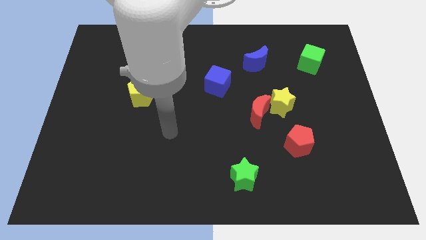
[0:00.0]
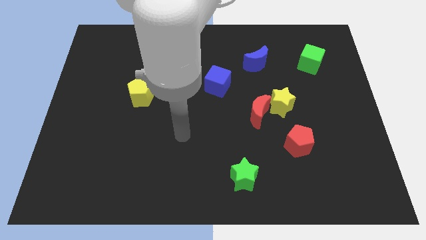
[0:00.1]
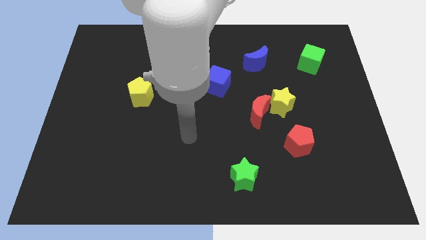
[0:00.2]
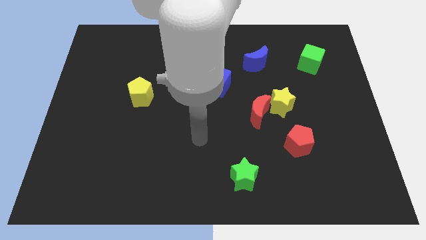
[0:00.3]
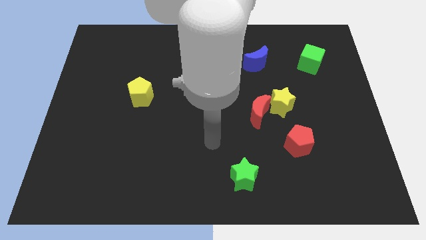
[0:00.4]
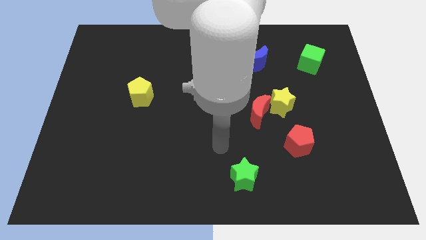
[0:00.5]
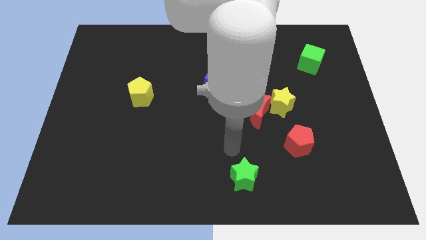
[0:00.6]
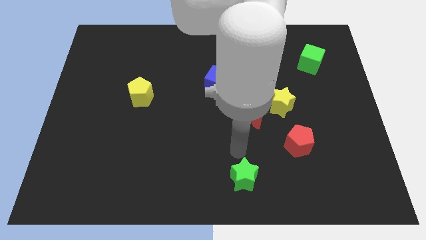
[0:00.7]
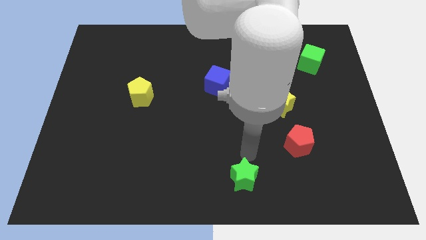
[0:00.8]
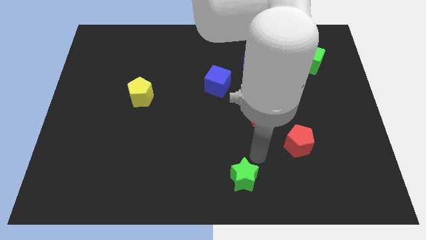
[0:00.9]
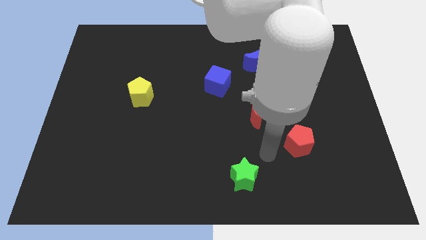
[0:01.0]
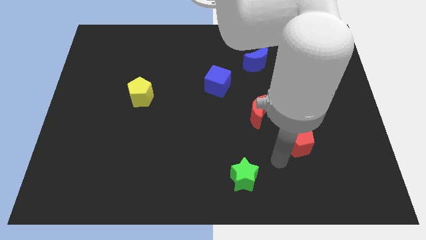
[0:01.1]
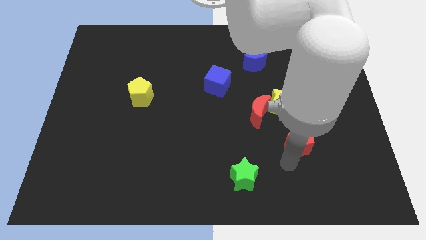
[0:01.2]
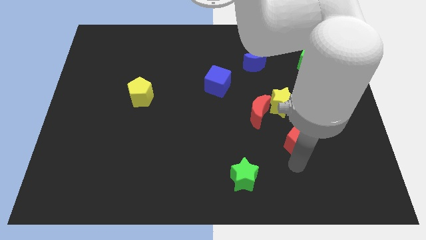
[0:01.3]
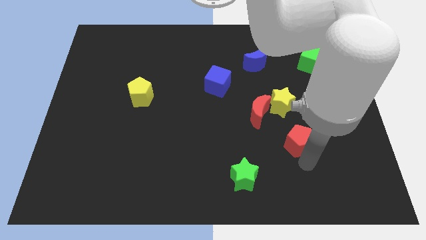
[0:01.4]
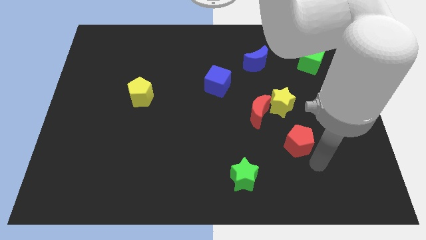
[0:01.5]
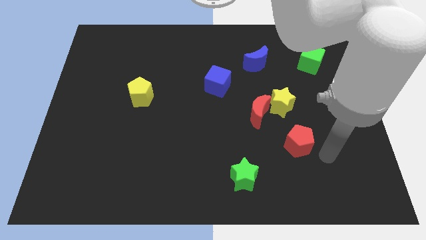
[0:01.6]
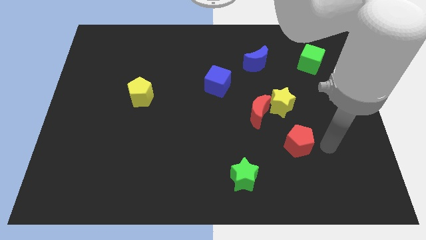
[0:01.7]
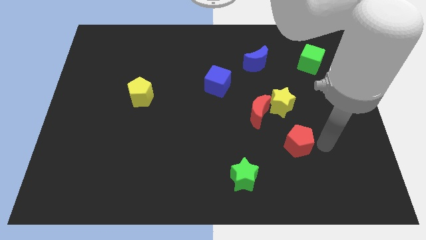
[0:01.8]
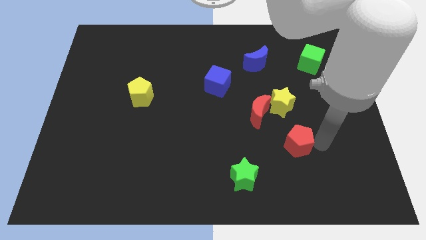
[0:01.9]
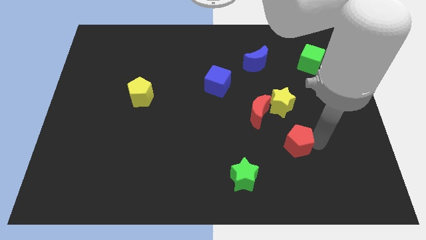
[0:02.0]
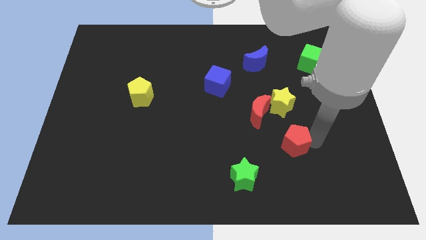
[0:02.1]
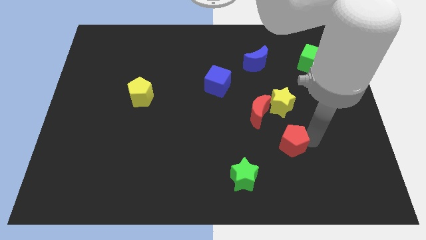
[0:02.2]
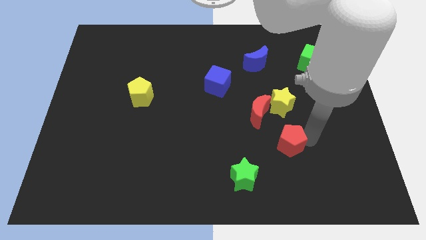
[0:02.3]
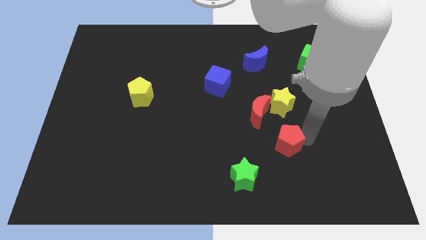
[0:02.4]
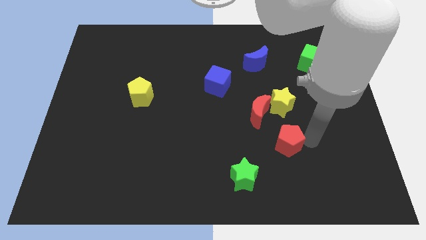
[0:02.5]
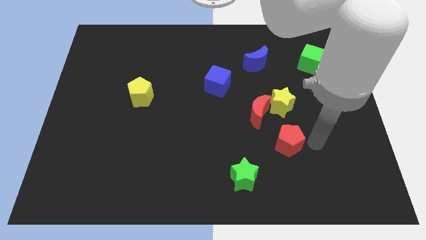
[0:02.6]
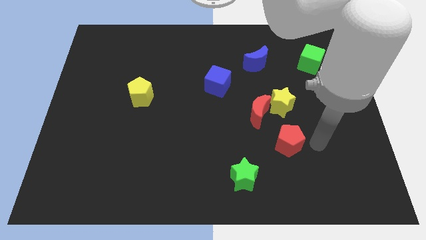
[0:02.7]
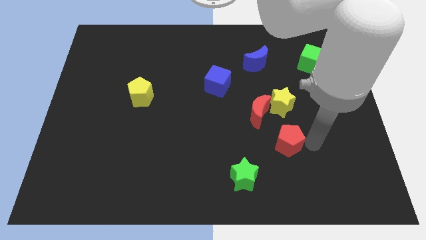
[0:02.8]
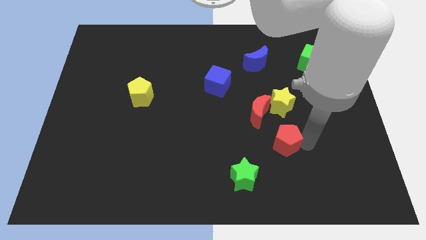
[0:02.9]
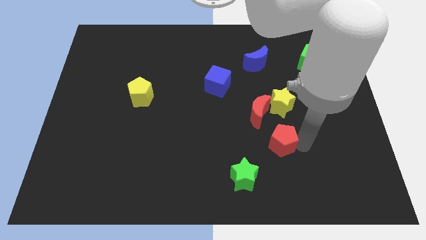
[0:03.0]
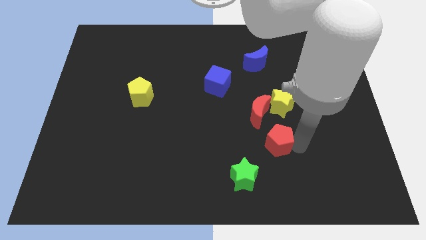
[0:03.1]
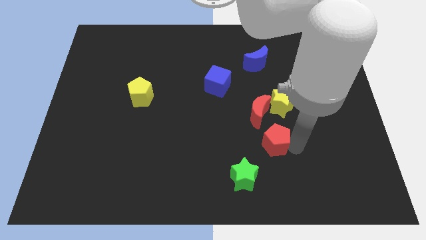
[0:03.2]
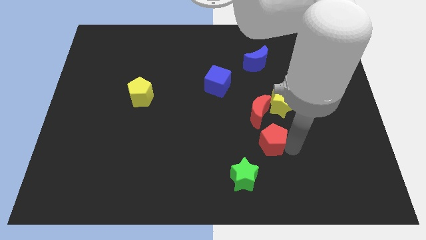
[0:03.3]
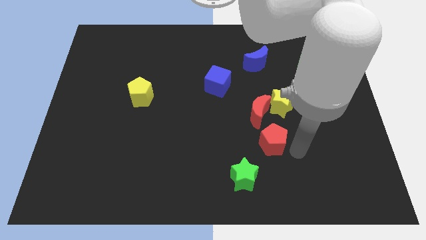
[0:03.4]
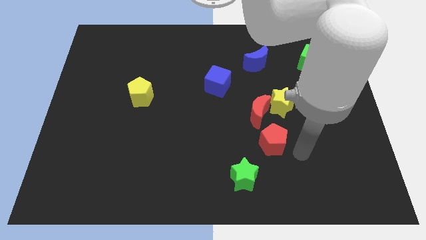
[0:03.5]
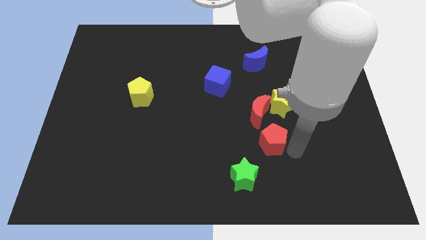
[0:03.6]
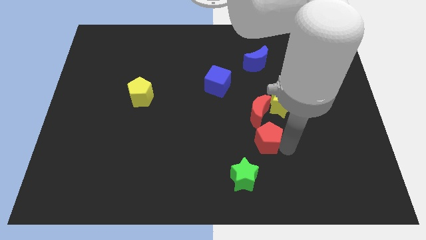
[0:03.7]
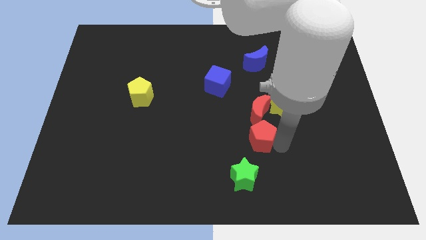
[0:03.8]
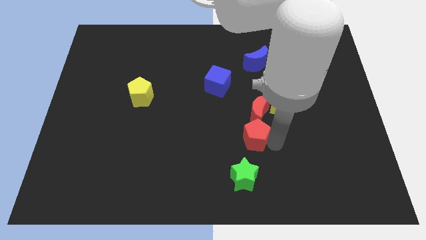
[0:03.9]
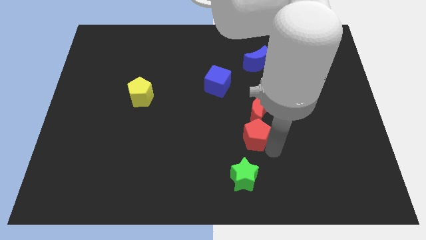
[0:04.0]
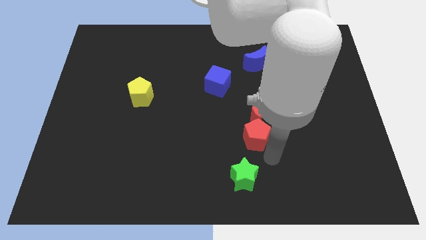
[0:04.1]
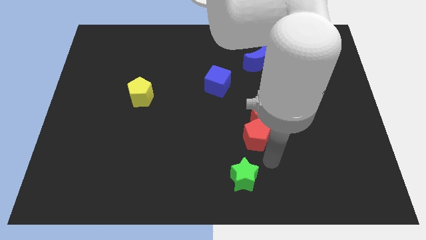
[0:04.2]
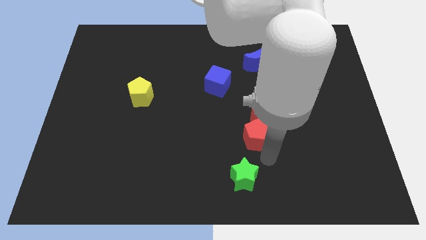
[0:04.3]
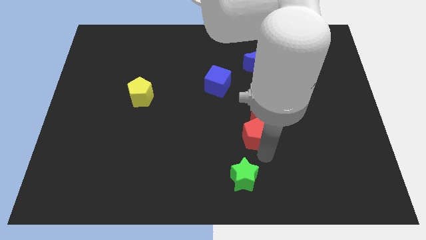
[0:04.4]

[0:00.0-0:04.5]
slide the red pentagon diagonally up and to the left a little

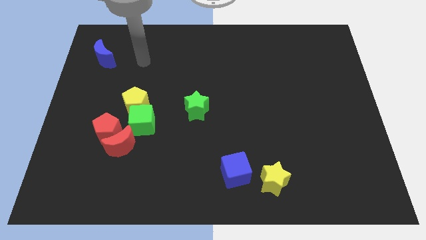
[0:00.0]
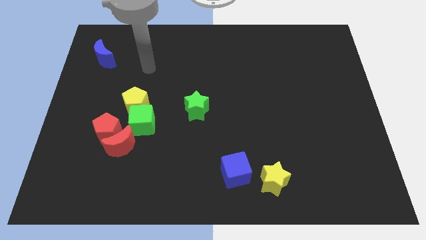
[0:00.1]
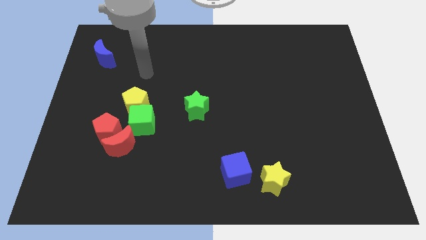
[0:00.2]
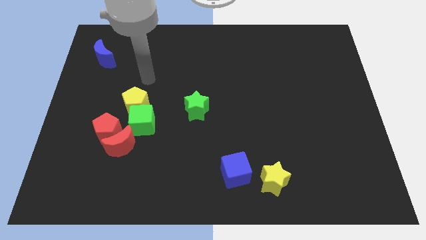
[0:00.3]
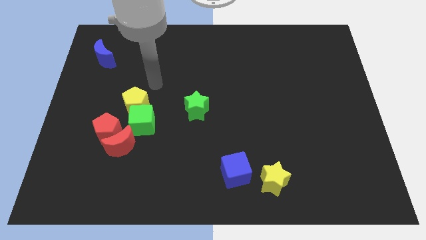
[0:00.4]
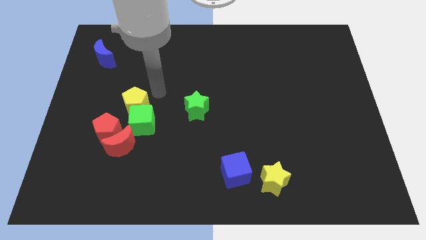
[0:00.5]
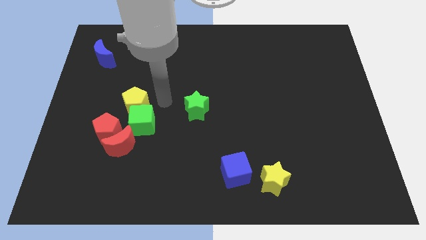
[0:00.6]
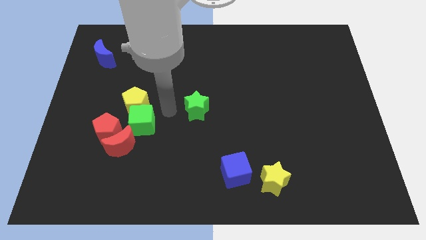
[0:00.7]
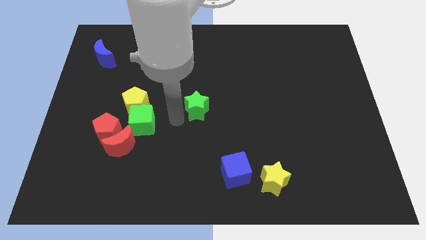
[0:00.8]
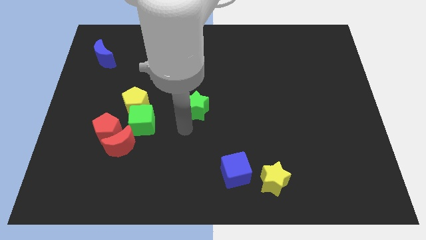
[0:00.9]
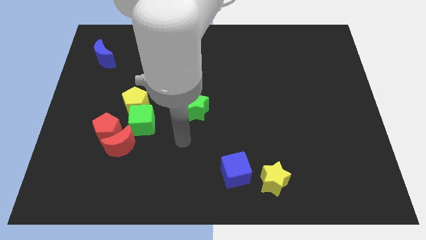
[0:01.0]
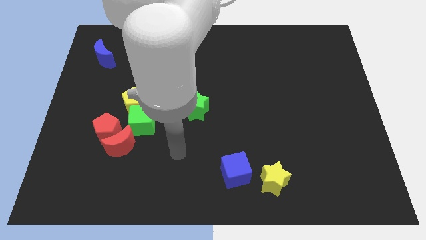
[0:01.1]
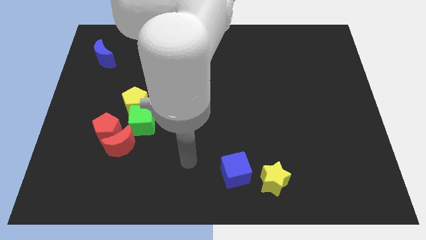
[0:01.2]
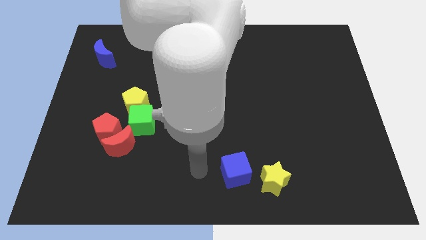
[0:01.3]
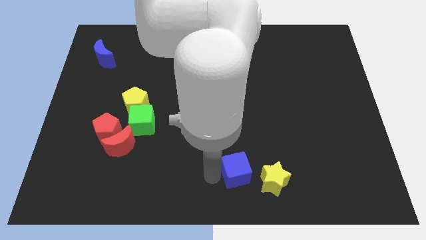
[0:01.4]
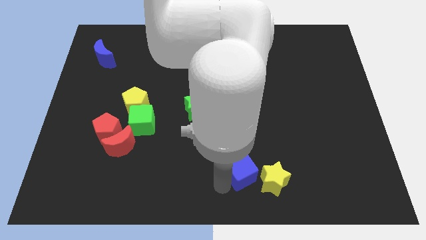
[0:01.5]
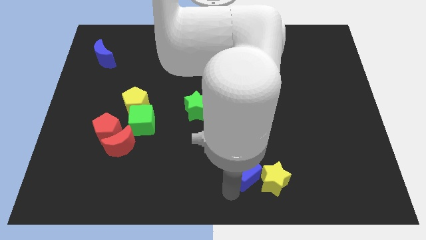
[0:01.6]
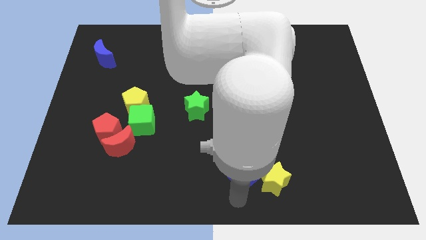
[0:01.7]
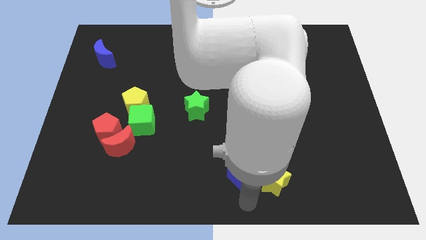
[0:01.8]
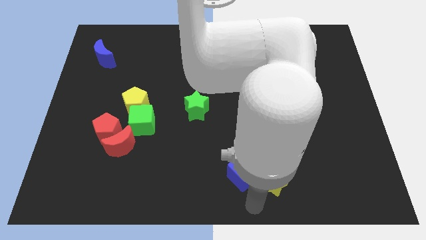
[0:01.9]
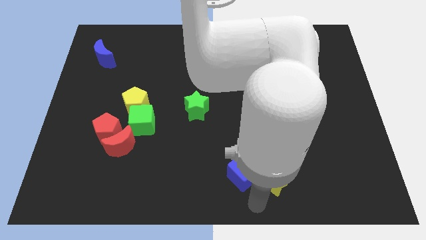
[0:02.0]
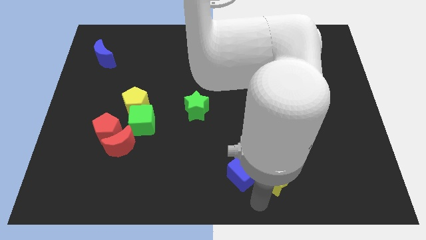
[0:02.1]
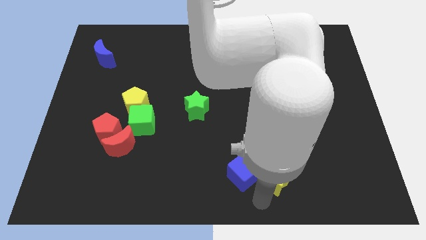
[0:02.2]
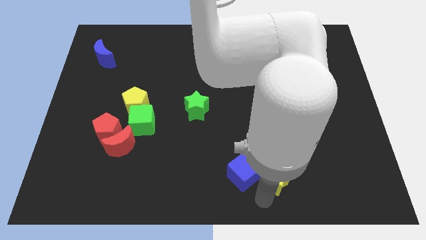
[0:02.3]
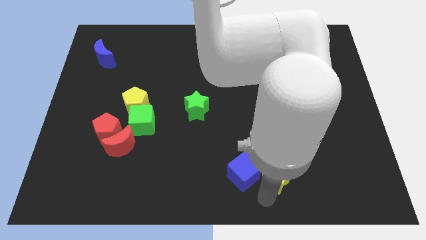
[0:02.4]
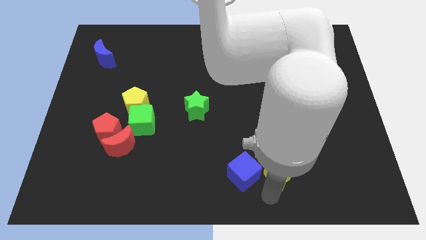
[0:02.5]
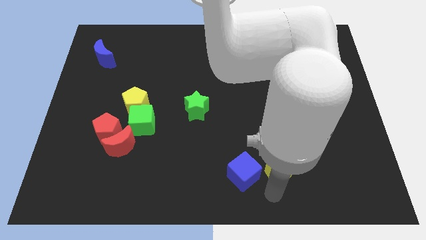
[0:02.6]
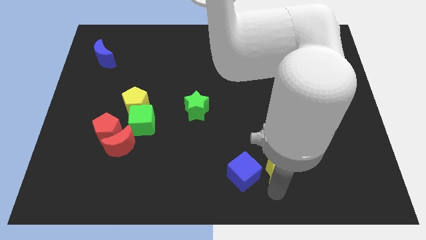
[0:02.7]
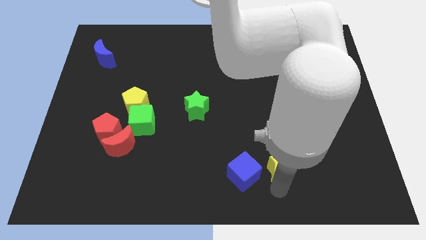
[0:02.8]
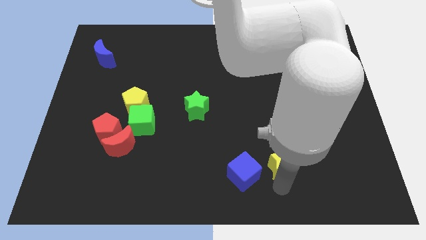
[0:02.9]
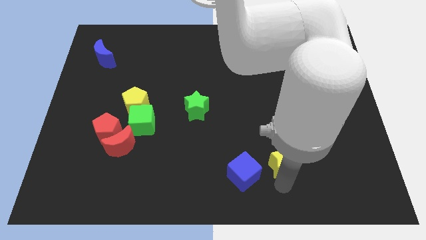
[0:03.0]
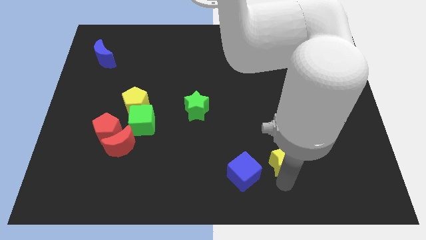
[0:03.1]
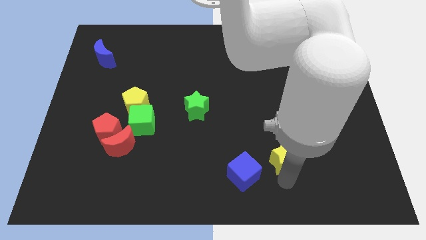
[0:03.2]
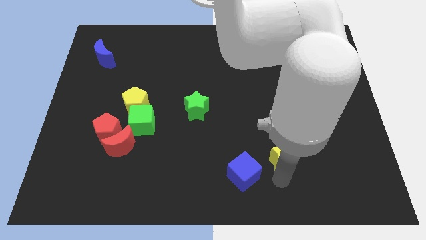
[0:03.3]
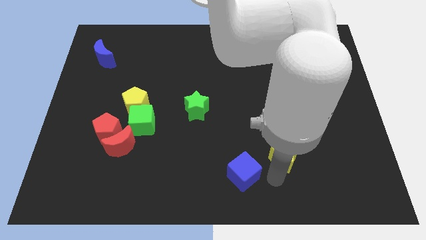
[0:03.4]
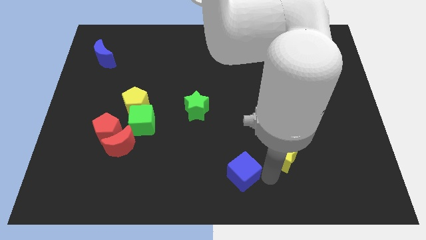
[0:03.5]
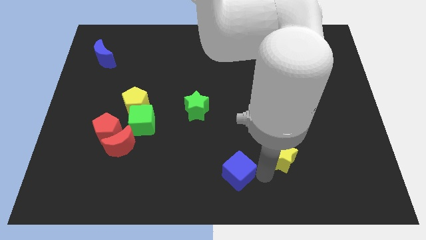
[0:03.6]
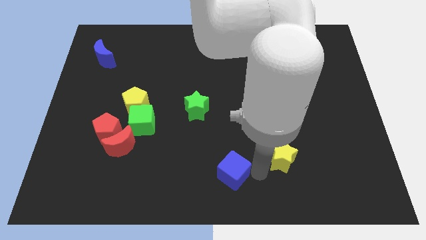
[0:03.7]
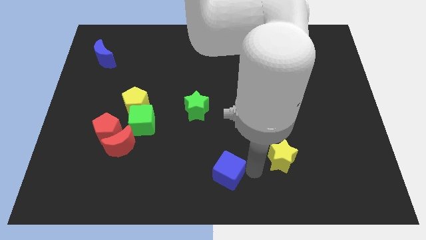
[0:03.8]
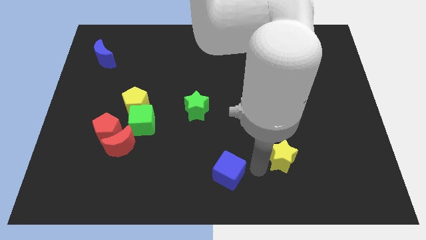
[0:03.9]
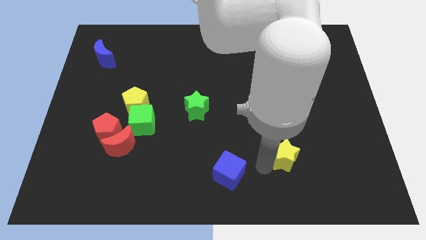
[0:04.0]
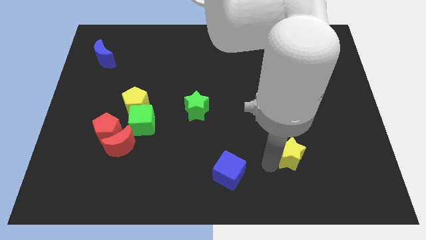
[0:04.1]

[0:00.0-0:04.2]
push the yellow star a little upwards and then right
